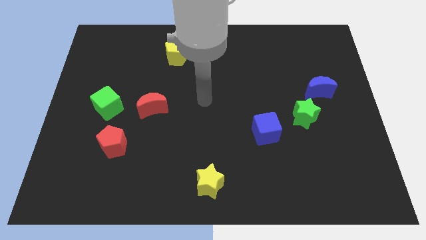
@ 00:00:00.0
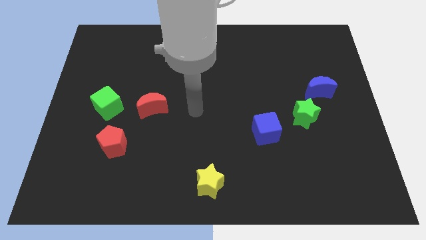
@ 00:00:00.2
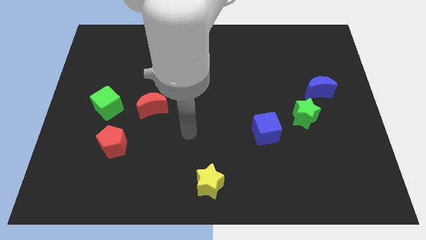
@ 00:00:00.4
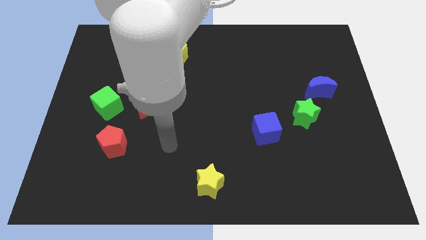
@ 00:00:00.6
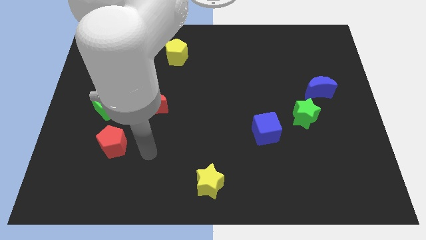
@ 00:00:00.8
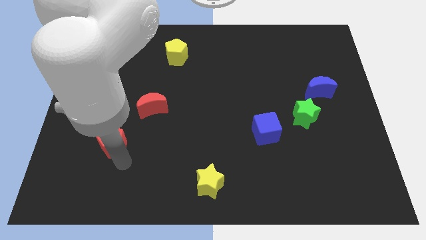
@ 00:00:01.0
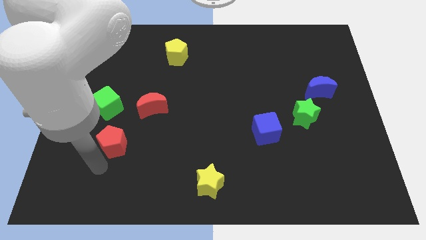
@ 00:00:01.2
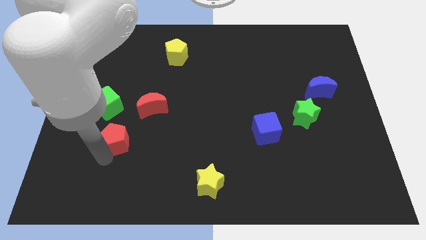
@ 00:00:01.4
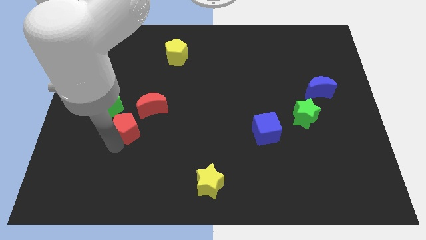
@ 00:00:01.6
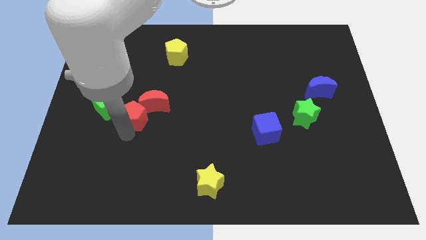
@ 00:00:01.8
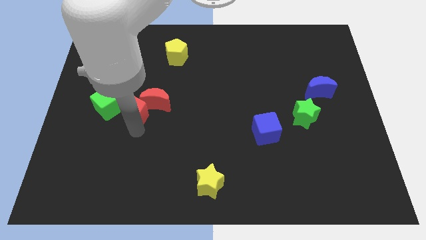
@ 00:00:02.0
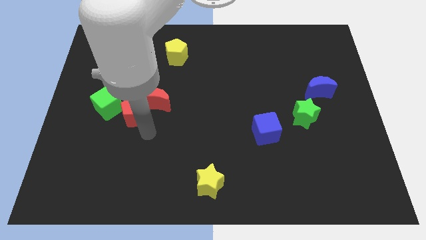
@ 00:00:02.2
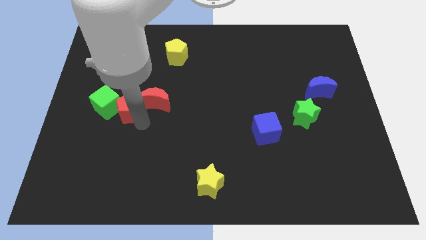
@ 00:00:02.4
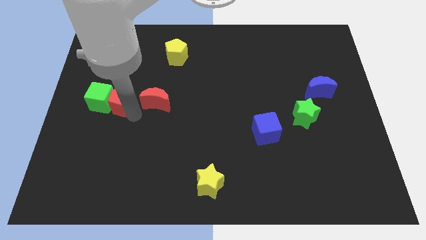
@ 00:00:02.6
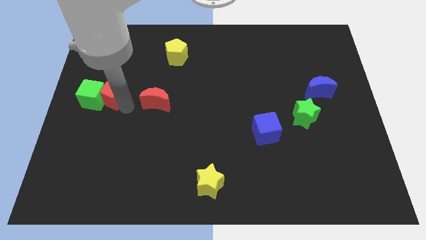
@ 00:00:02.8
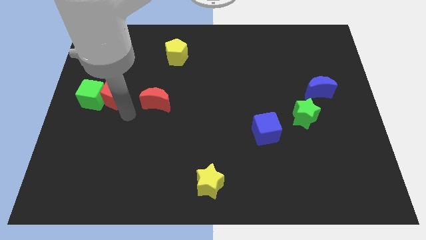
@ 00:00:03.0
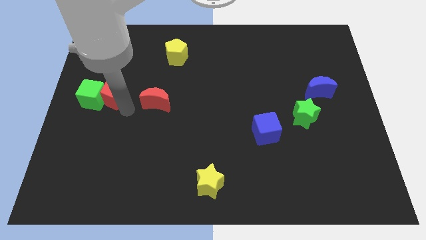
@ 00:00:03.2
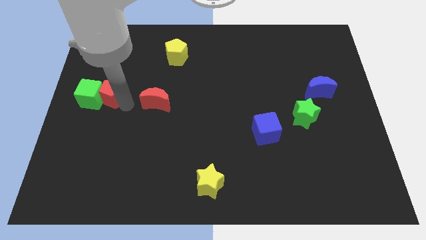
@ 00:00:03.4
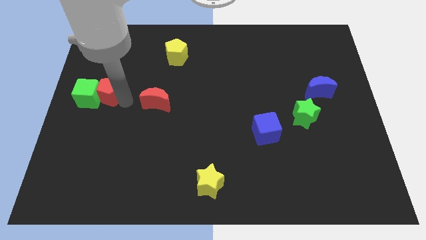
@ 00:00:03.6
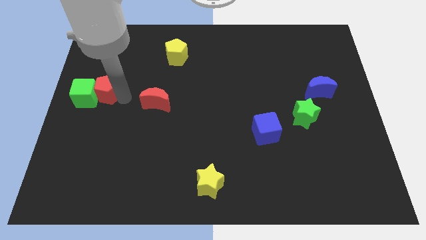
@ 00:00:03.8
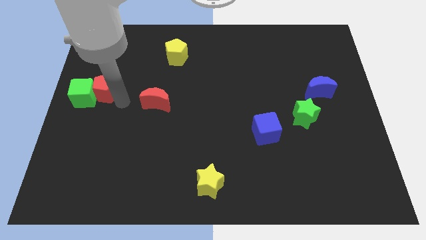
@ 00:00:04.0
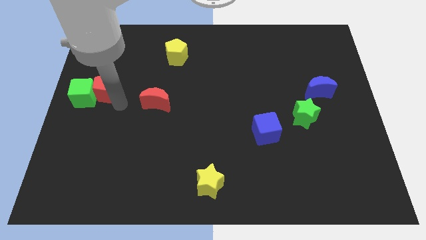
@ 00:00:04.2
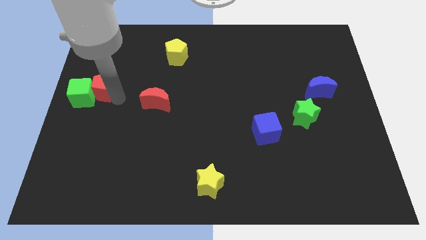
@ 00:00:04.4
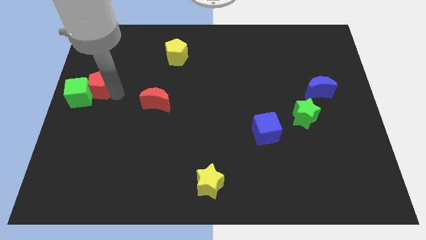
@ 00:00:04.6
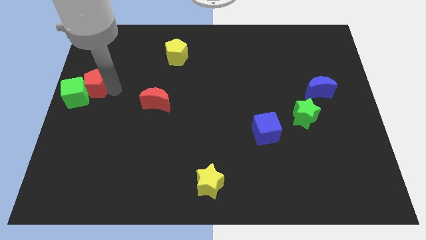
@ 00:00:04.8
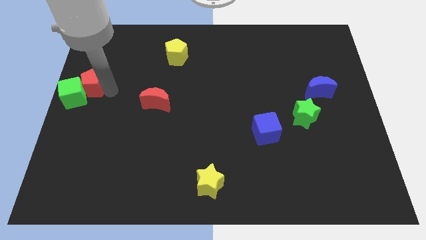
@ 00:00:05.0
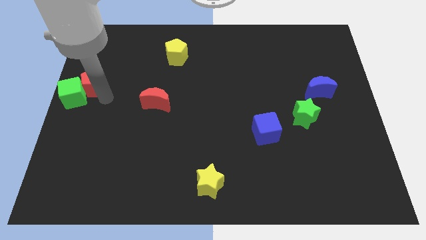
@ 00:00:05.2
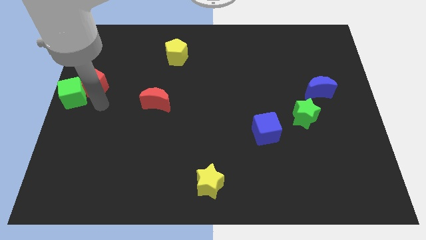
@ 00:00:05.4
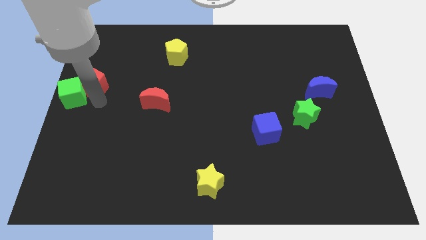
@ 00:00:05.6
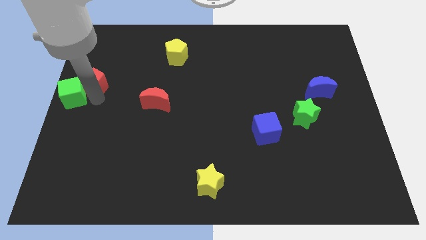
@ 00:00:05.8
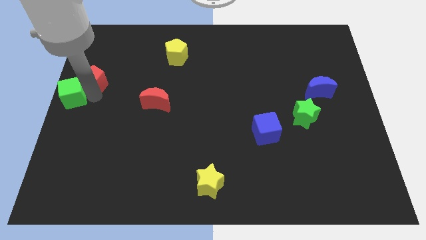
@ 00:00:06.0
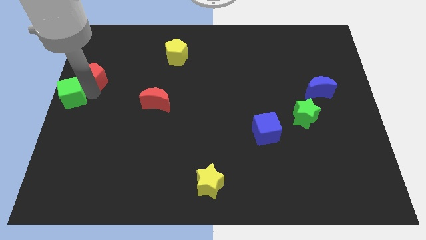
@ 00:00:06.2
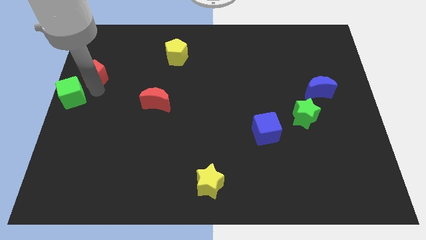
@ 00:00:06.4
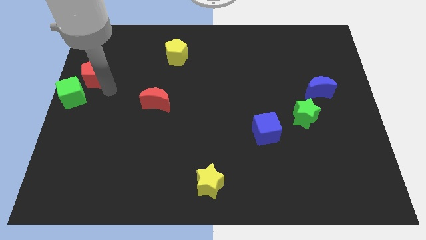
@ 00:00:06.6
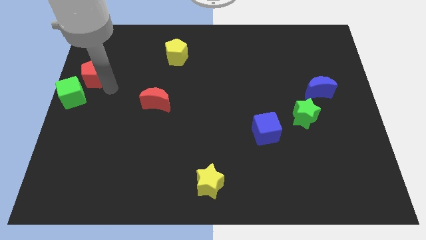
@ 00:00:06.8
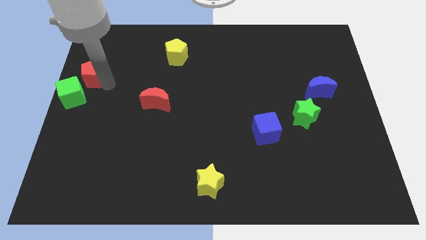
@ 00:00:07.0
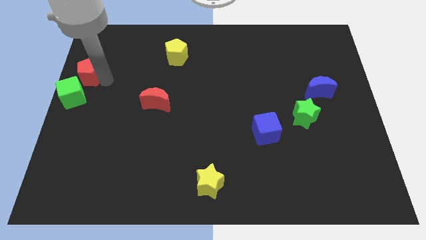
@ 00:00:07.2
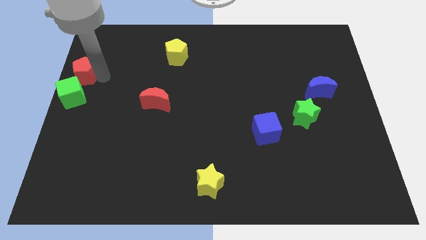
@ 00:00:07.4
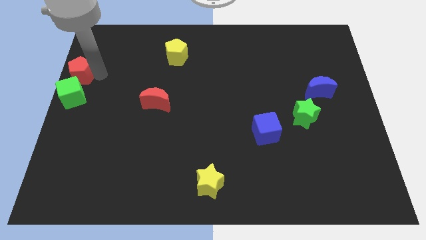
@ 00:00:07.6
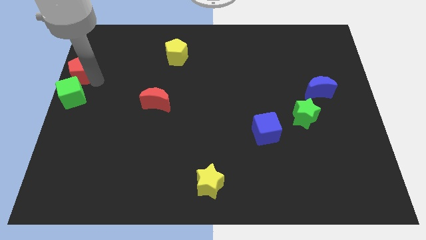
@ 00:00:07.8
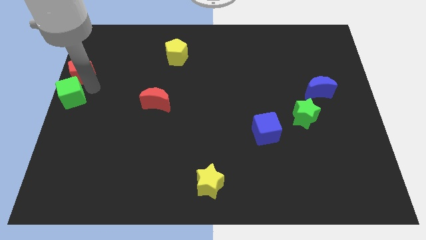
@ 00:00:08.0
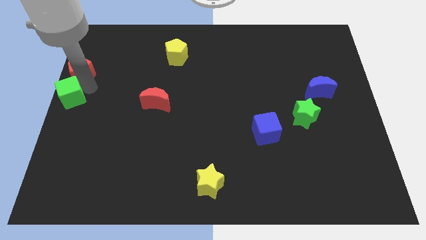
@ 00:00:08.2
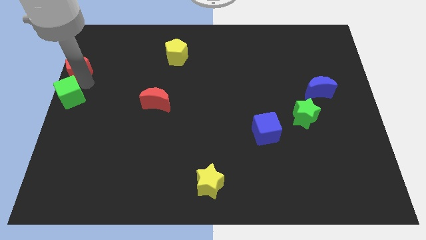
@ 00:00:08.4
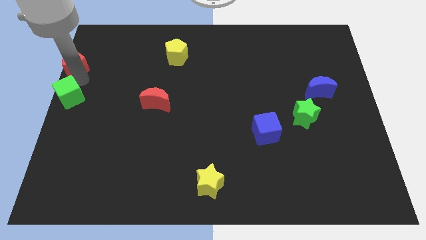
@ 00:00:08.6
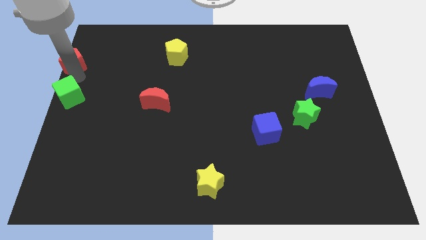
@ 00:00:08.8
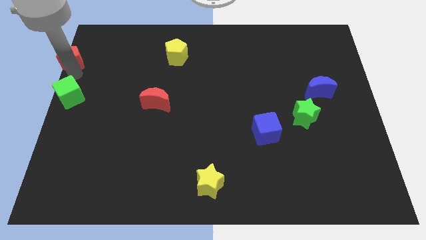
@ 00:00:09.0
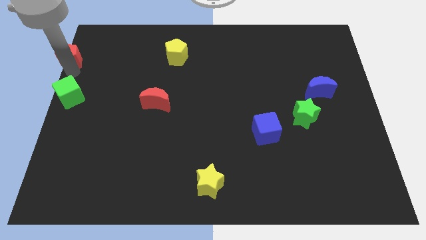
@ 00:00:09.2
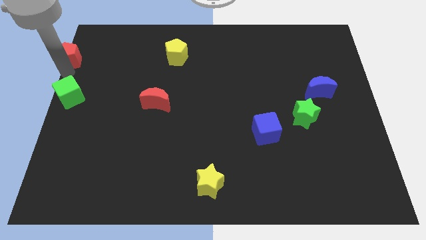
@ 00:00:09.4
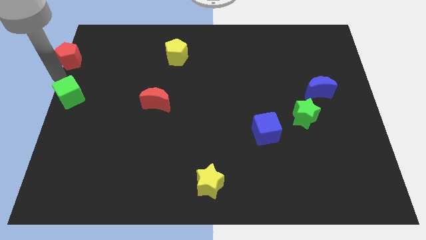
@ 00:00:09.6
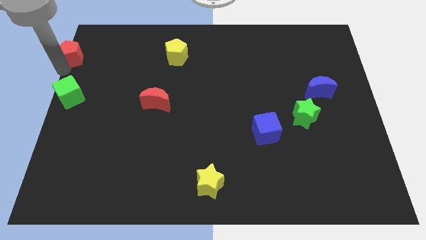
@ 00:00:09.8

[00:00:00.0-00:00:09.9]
push the red pentagon to the upper left corner
